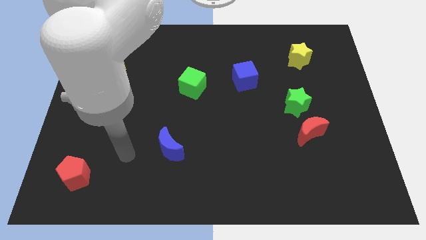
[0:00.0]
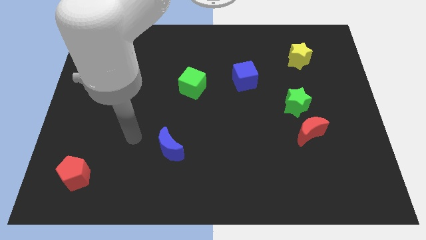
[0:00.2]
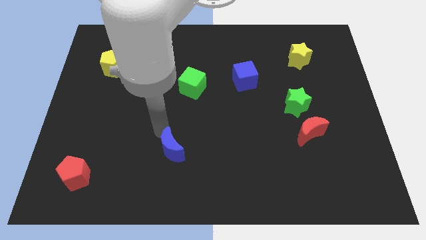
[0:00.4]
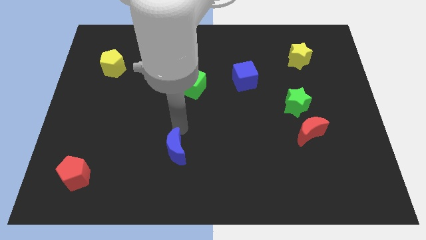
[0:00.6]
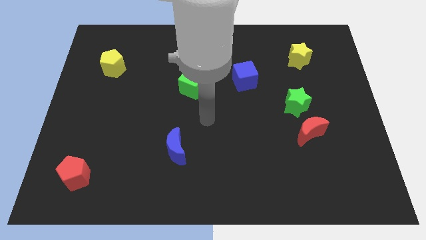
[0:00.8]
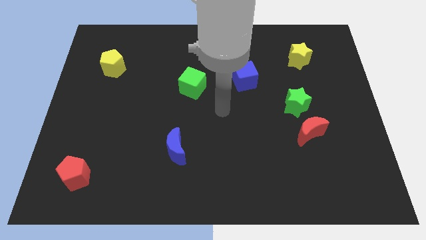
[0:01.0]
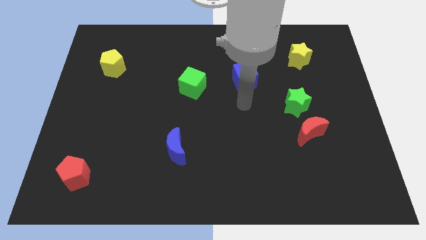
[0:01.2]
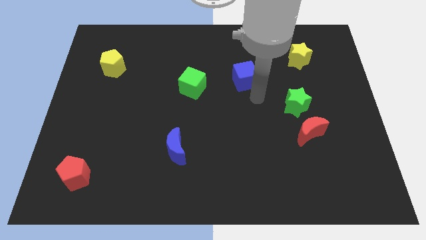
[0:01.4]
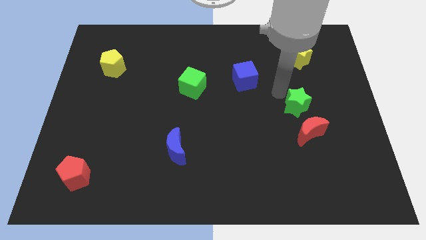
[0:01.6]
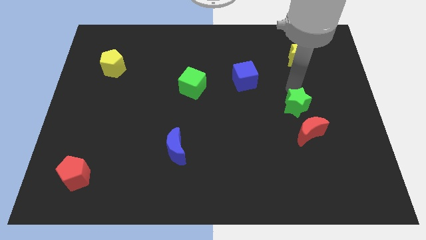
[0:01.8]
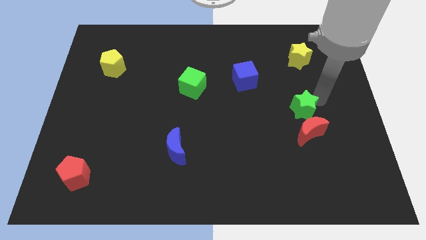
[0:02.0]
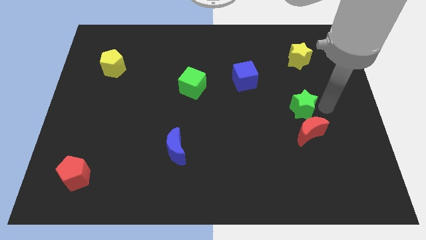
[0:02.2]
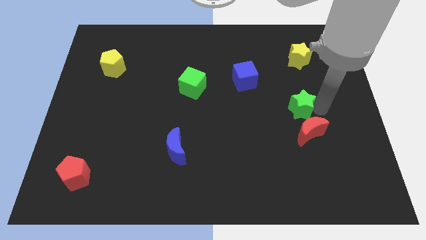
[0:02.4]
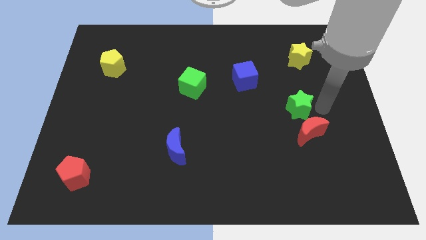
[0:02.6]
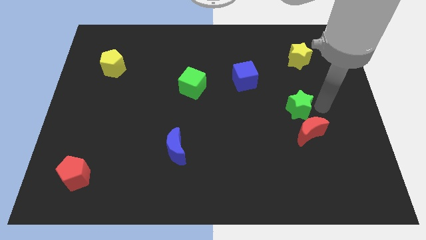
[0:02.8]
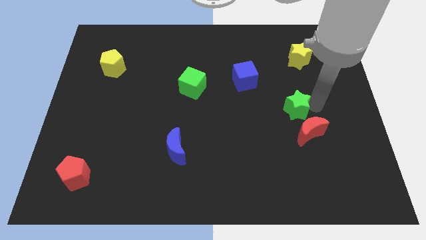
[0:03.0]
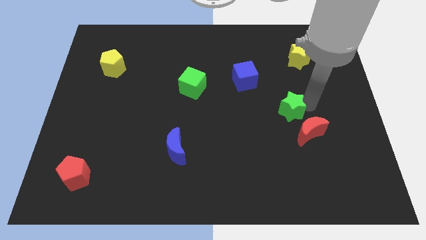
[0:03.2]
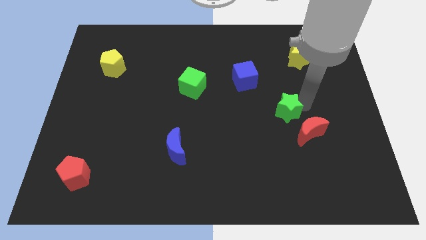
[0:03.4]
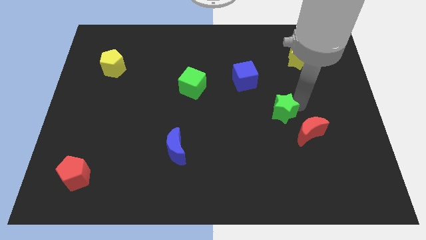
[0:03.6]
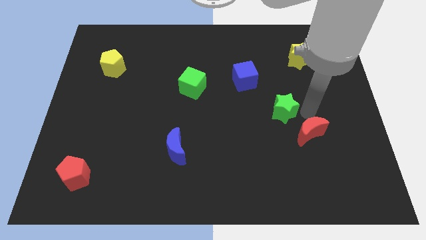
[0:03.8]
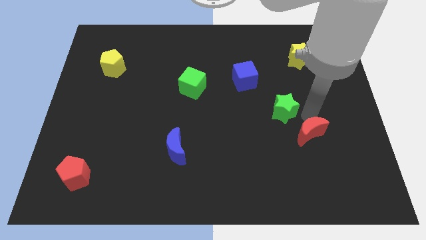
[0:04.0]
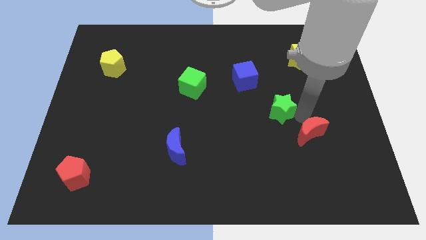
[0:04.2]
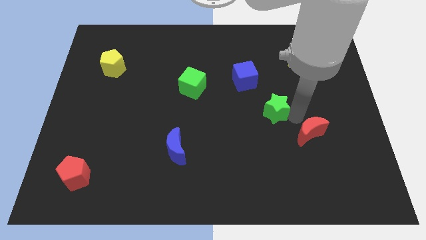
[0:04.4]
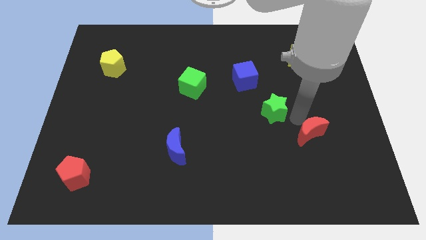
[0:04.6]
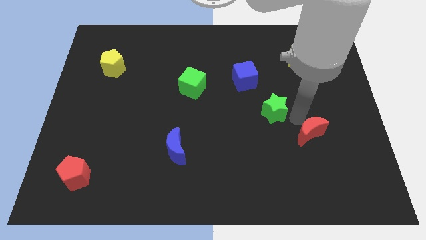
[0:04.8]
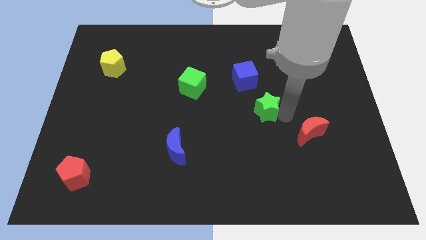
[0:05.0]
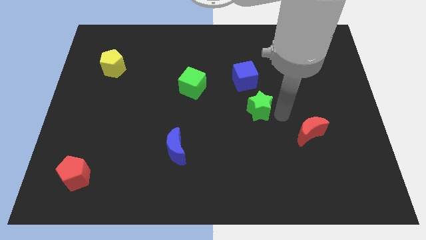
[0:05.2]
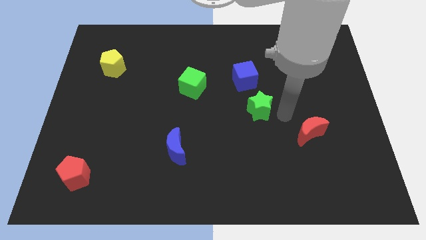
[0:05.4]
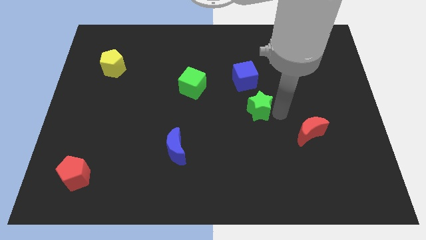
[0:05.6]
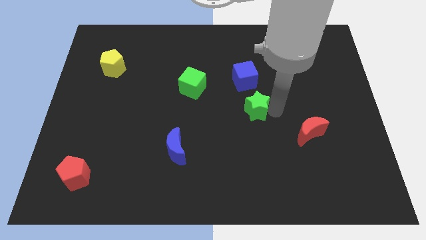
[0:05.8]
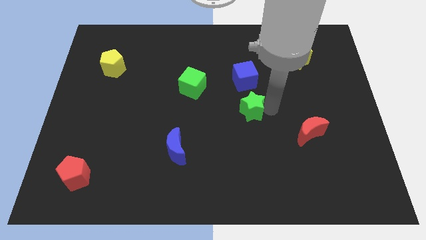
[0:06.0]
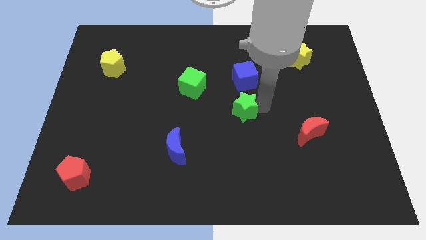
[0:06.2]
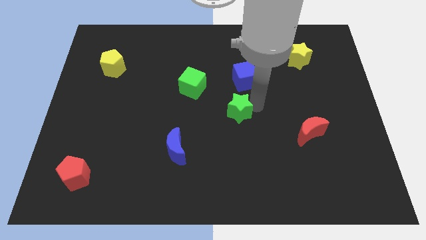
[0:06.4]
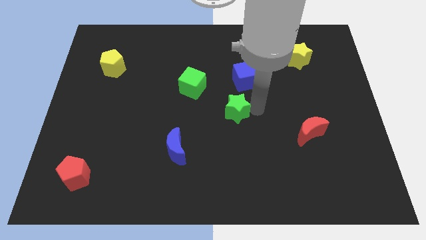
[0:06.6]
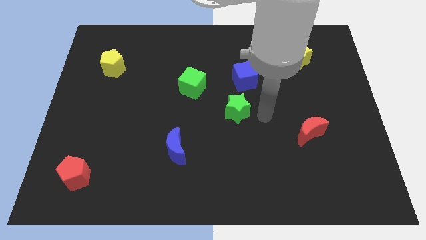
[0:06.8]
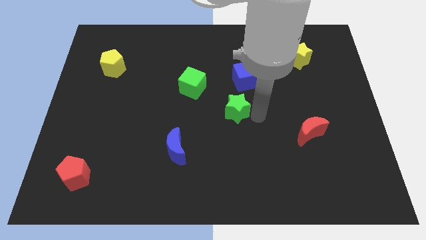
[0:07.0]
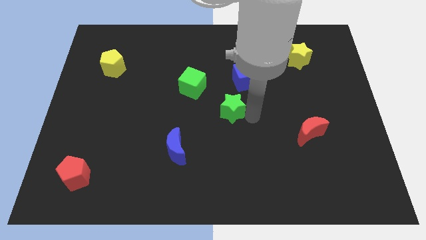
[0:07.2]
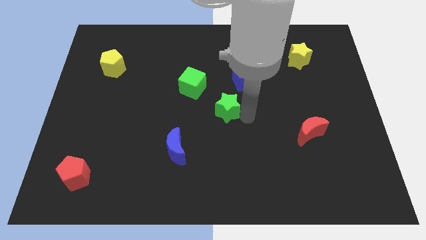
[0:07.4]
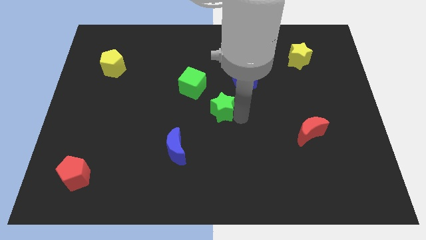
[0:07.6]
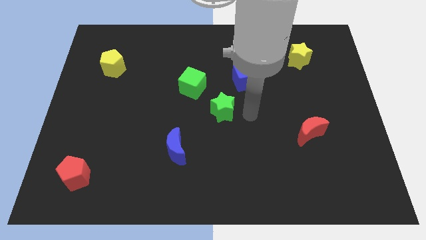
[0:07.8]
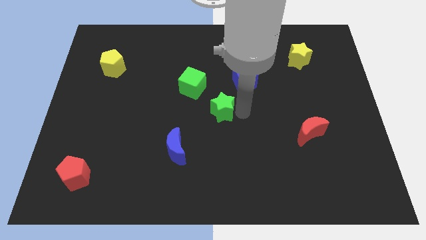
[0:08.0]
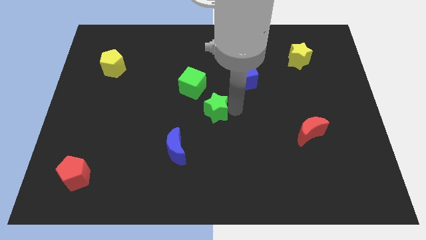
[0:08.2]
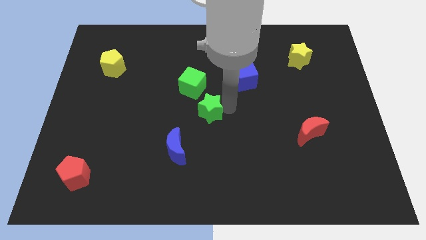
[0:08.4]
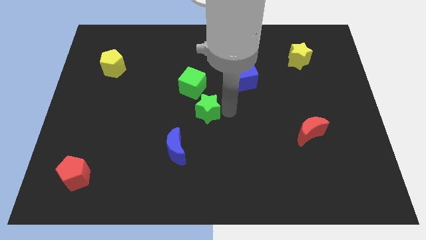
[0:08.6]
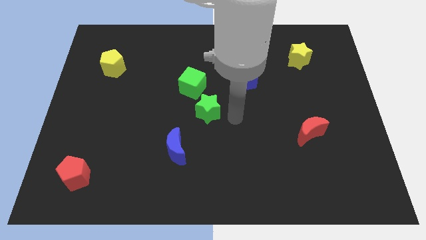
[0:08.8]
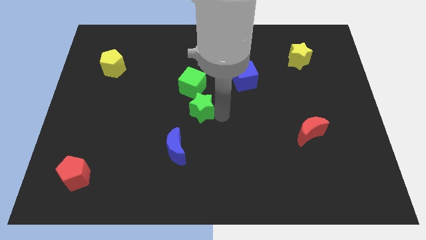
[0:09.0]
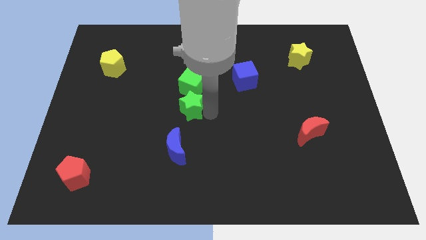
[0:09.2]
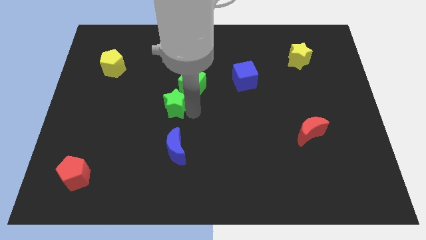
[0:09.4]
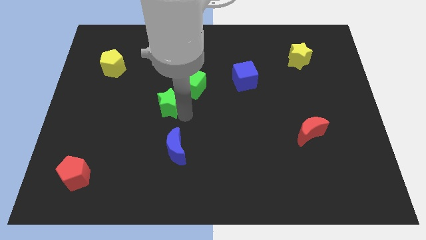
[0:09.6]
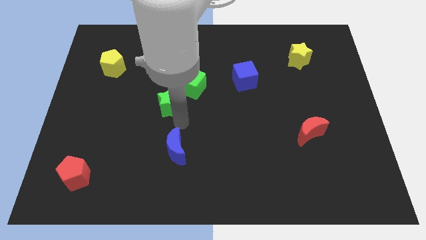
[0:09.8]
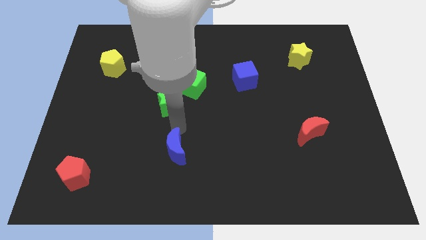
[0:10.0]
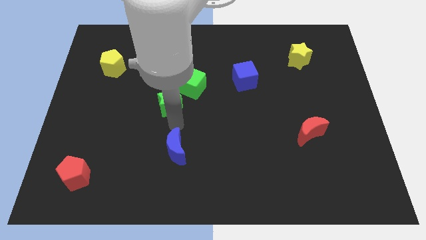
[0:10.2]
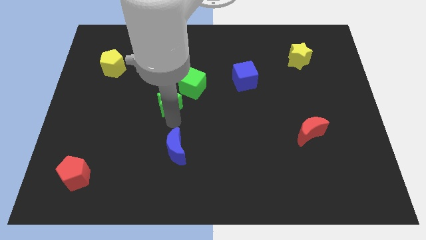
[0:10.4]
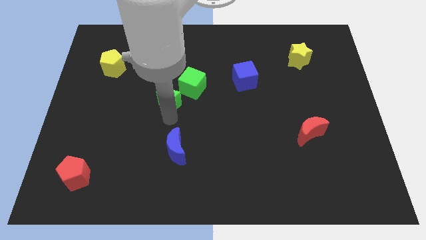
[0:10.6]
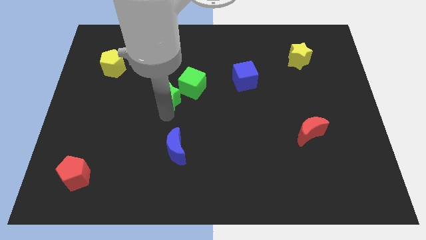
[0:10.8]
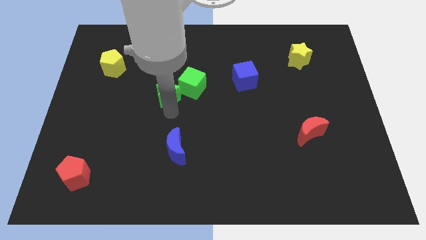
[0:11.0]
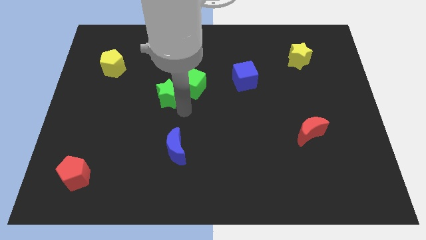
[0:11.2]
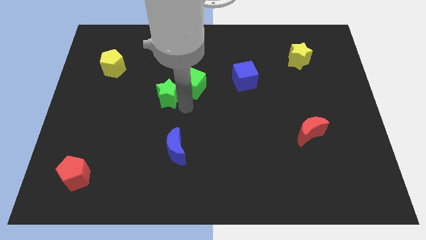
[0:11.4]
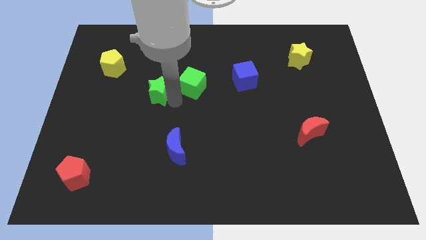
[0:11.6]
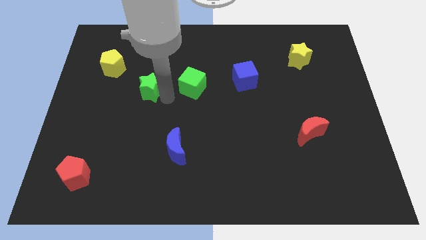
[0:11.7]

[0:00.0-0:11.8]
move the green star diagonally down and to the right of the yellow pentagon
